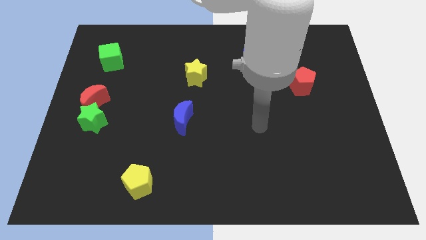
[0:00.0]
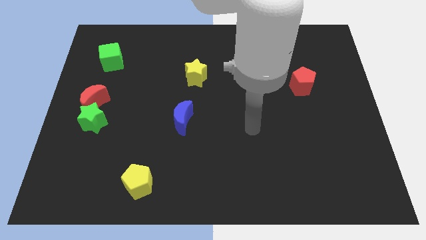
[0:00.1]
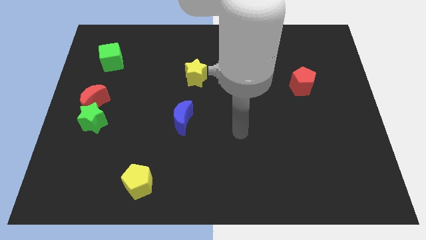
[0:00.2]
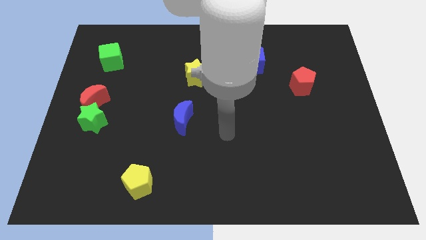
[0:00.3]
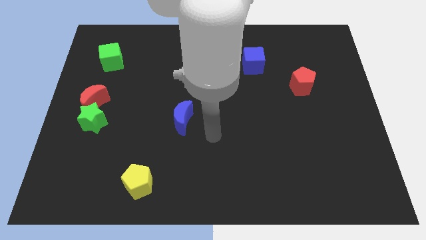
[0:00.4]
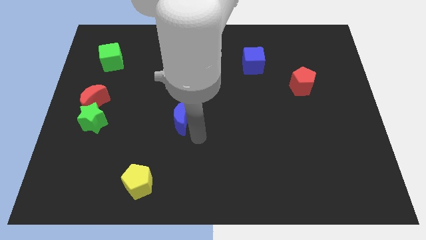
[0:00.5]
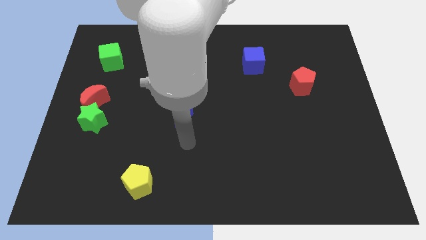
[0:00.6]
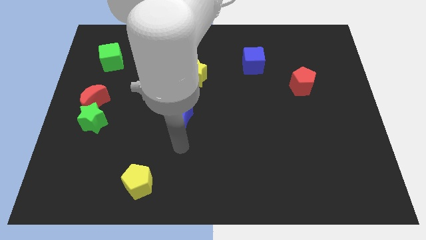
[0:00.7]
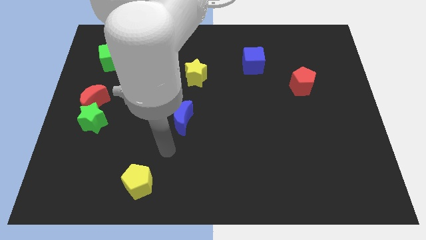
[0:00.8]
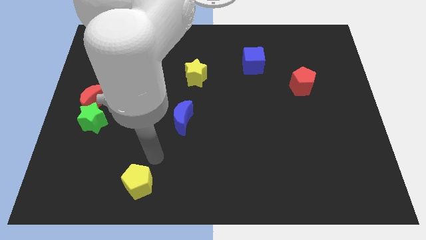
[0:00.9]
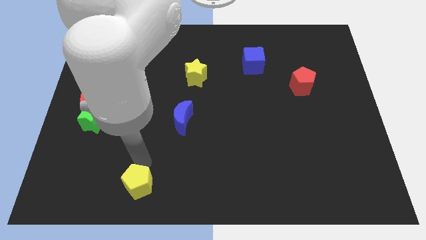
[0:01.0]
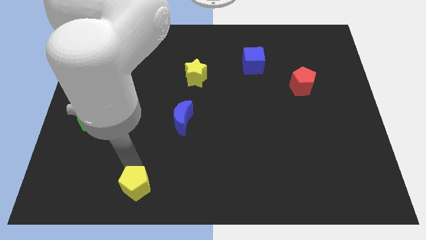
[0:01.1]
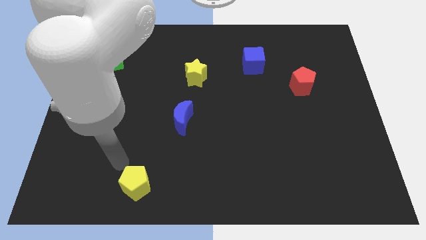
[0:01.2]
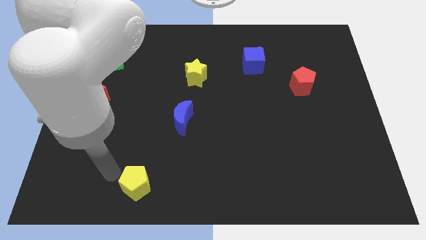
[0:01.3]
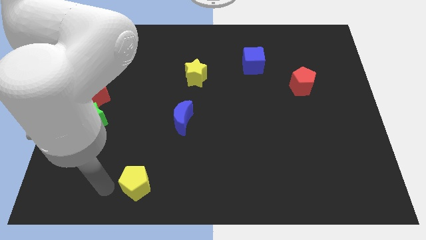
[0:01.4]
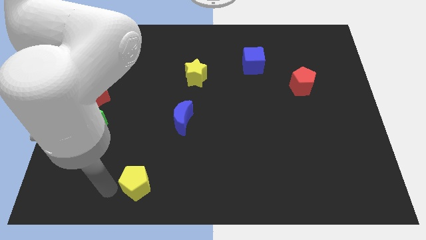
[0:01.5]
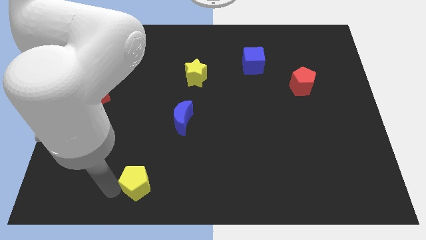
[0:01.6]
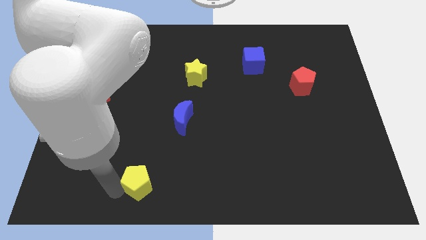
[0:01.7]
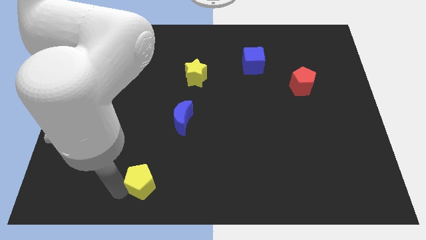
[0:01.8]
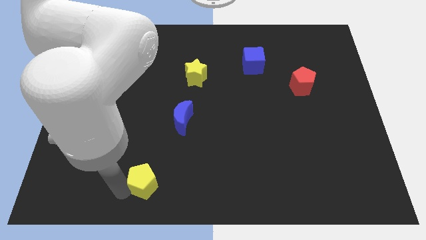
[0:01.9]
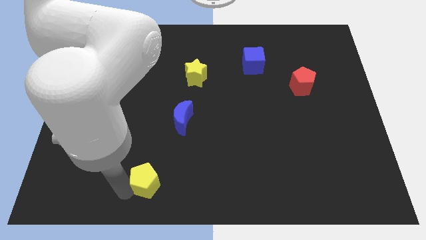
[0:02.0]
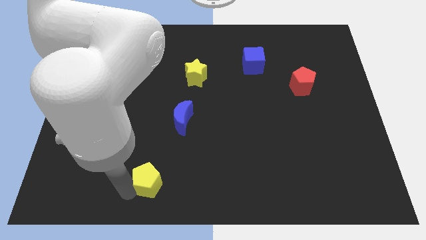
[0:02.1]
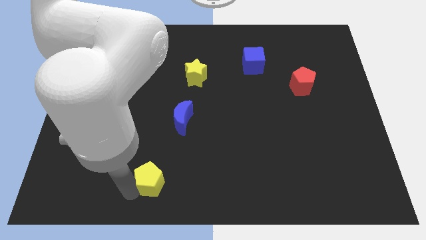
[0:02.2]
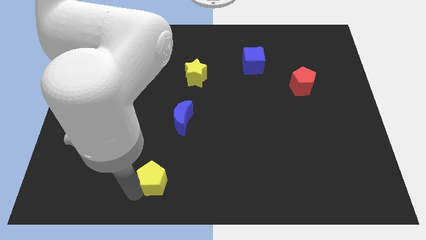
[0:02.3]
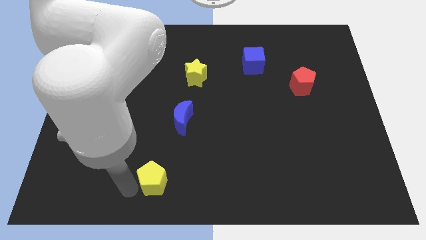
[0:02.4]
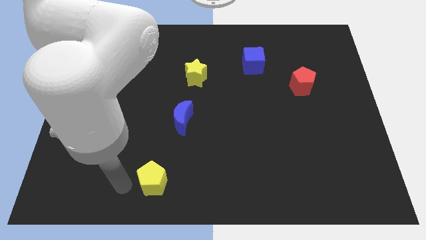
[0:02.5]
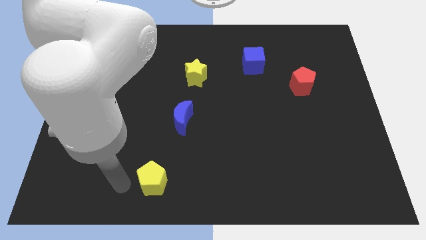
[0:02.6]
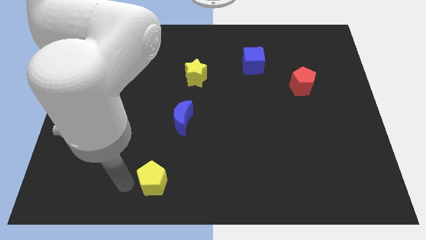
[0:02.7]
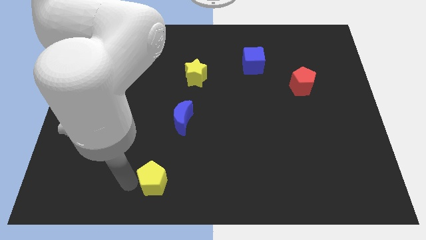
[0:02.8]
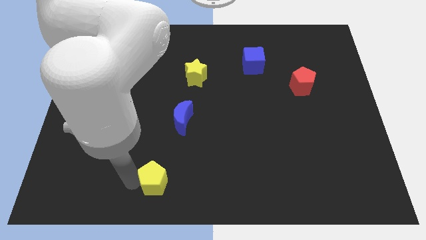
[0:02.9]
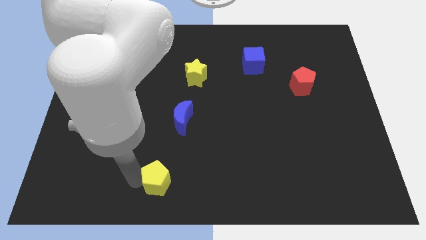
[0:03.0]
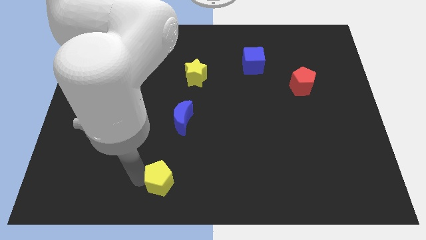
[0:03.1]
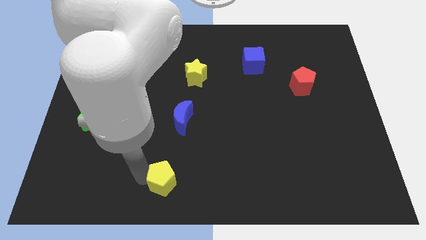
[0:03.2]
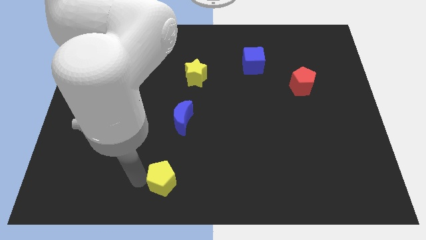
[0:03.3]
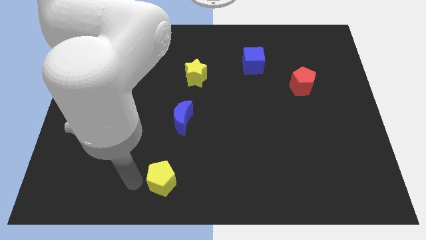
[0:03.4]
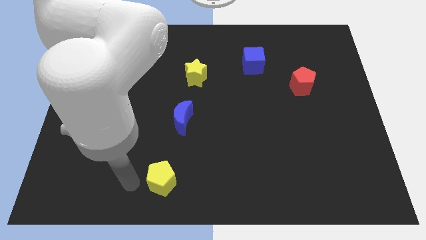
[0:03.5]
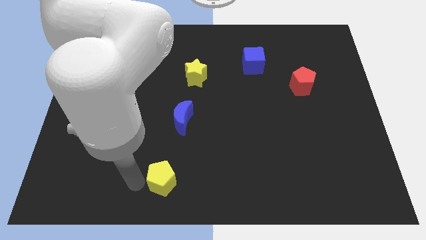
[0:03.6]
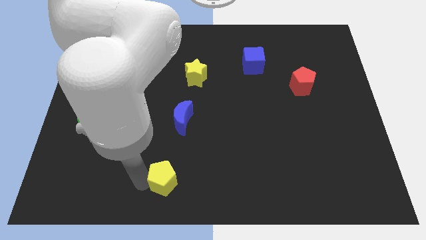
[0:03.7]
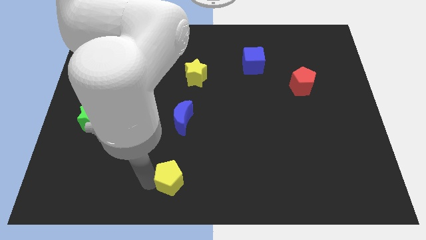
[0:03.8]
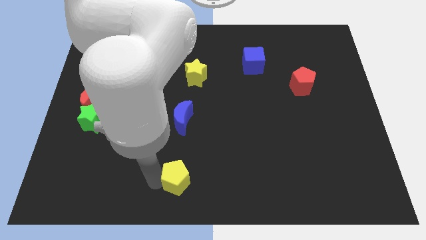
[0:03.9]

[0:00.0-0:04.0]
slide the yellow pentagon to the right slightly

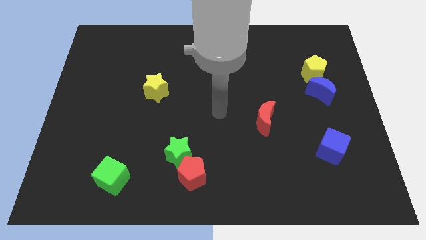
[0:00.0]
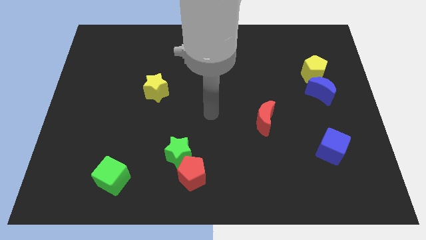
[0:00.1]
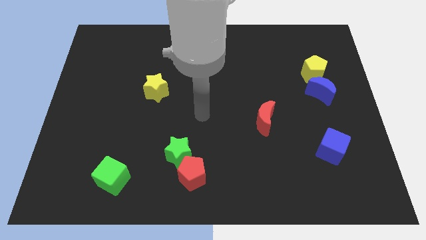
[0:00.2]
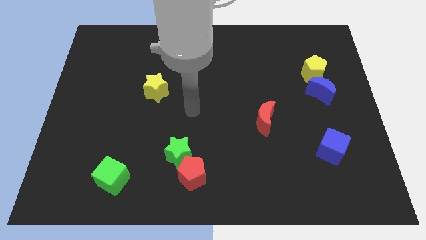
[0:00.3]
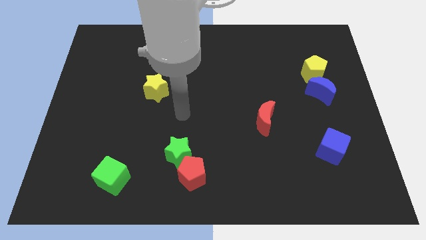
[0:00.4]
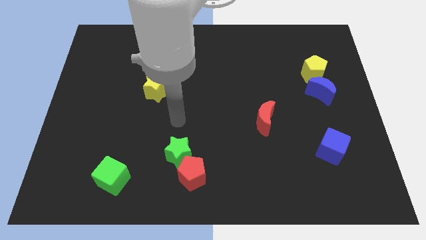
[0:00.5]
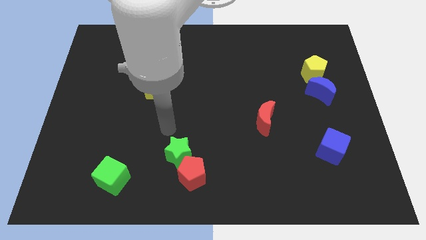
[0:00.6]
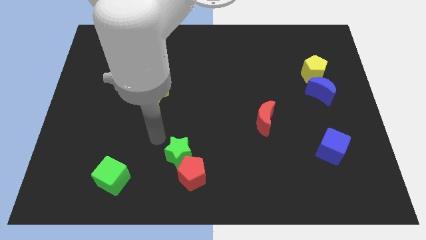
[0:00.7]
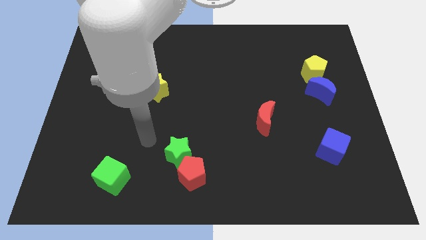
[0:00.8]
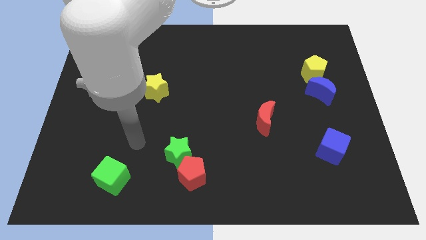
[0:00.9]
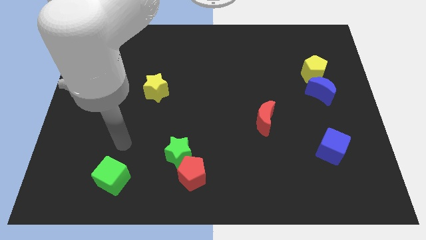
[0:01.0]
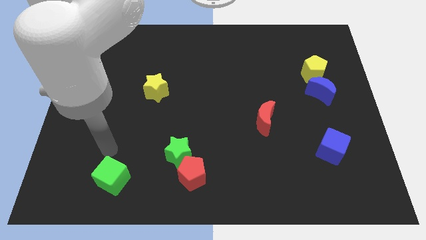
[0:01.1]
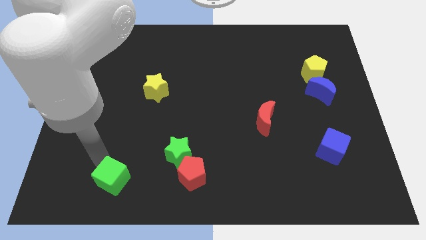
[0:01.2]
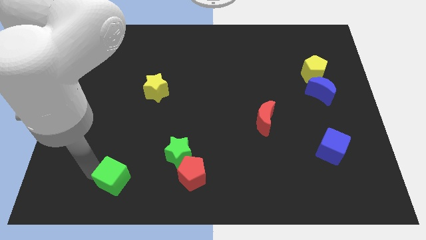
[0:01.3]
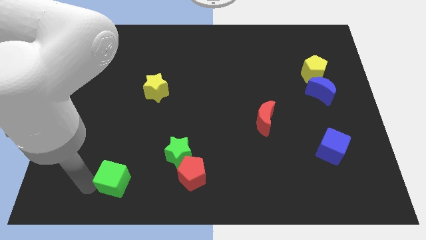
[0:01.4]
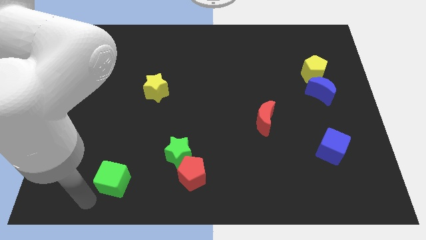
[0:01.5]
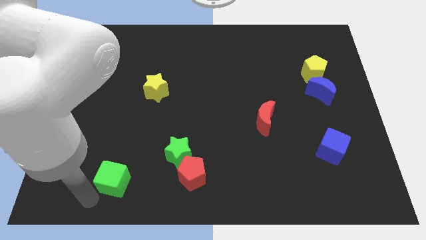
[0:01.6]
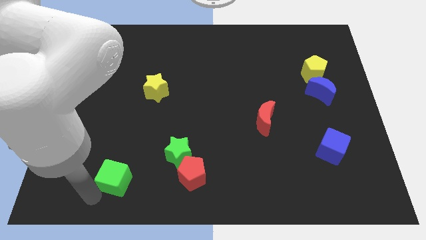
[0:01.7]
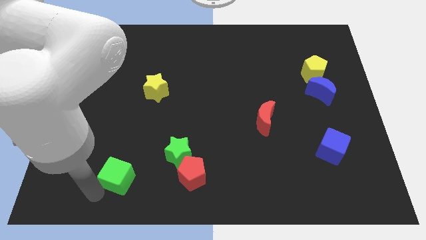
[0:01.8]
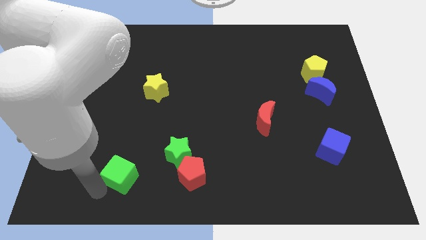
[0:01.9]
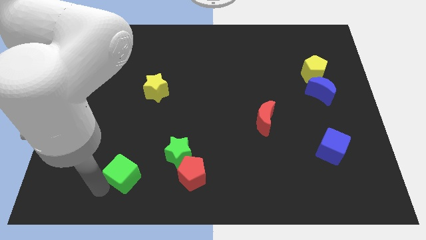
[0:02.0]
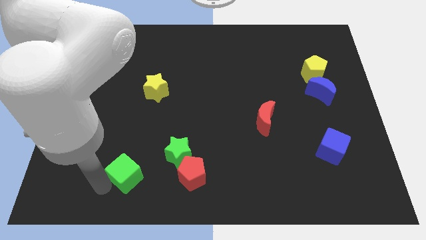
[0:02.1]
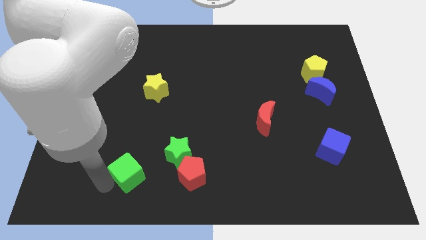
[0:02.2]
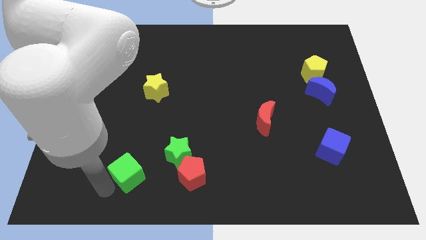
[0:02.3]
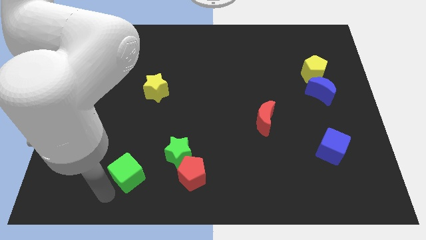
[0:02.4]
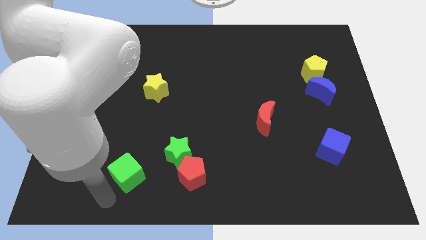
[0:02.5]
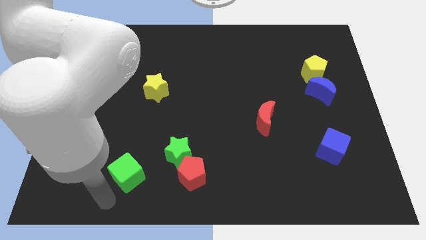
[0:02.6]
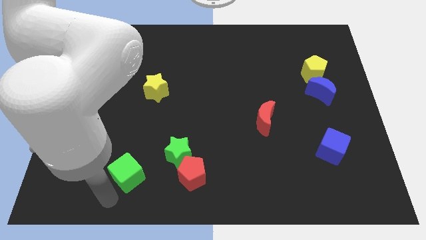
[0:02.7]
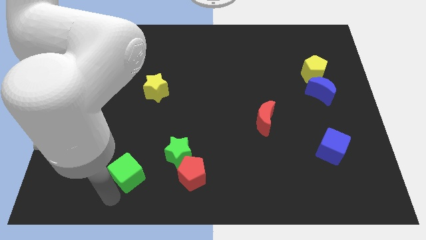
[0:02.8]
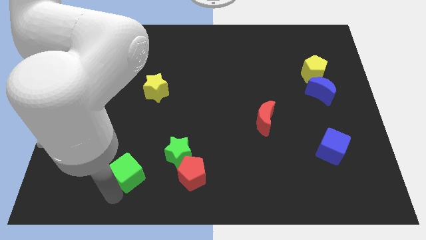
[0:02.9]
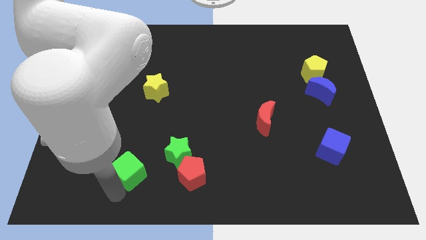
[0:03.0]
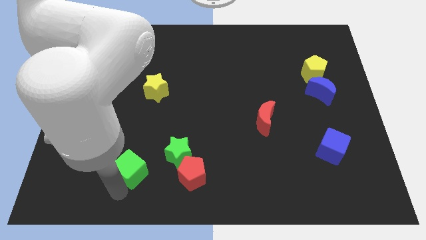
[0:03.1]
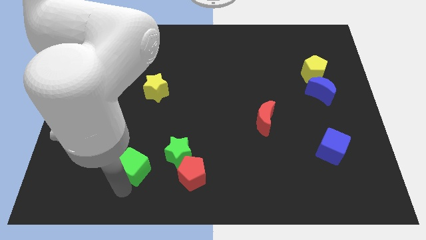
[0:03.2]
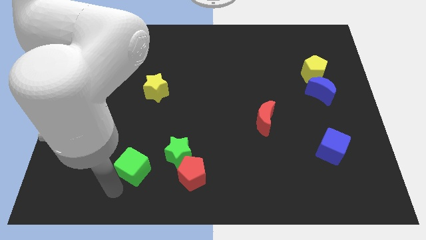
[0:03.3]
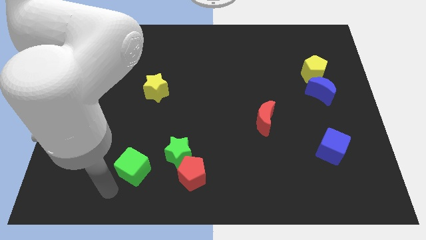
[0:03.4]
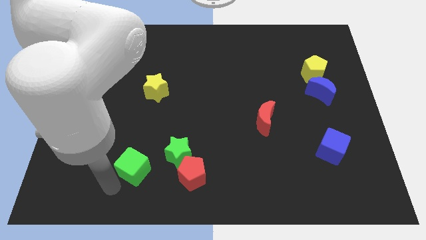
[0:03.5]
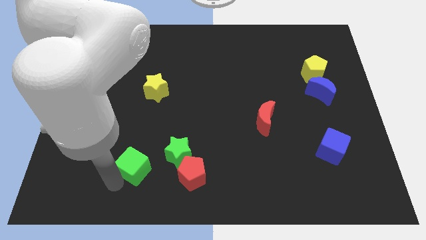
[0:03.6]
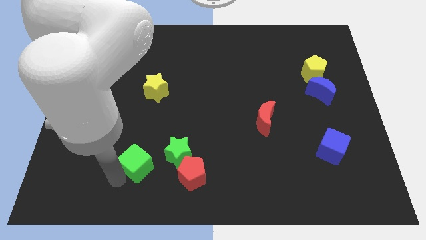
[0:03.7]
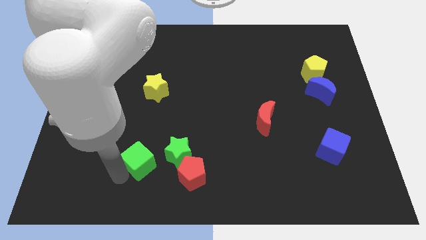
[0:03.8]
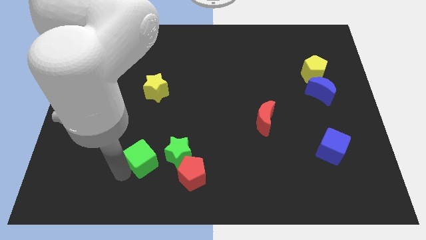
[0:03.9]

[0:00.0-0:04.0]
slide the green cube upwards and then to the right a little

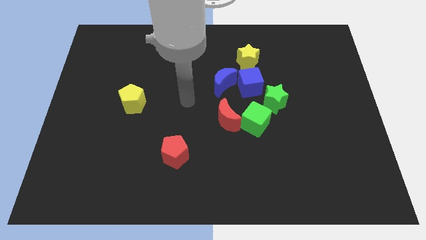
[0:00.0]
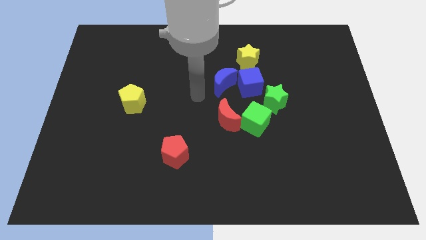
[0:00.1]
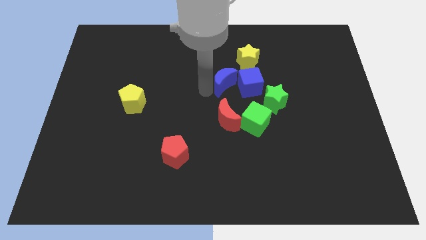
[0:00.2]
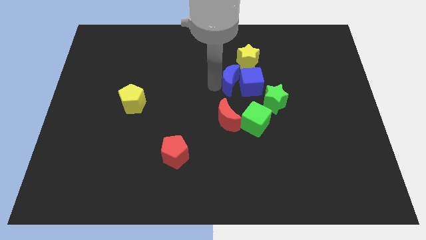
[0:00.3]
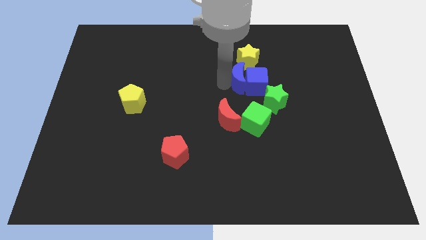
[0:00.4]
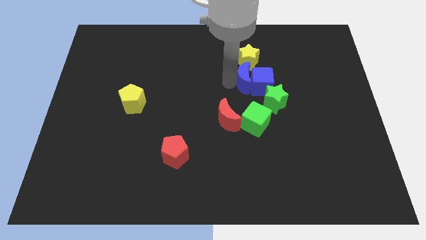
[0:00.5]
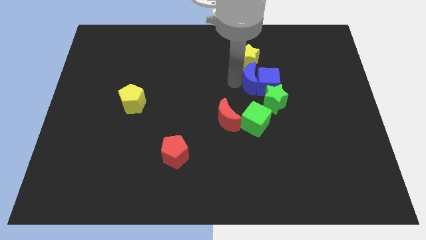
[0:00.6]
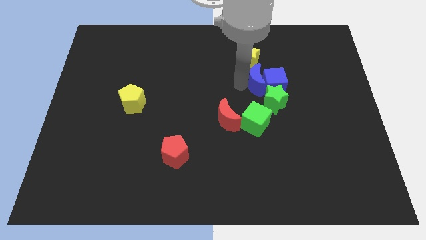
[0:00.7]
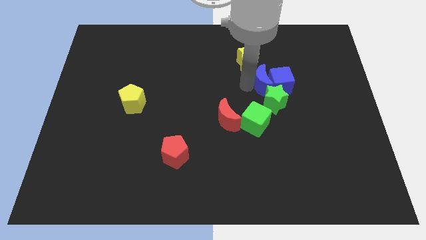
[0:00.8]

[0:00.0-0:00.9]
move the blue cube to the right a little
